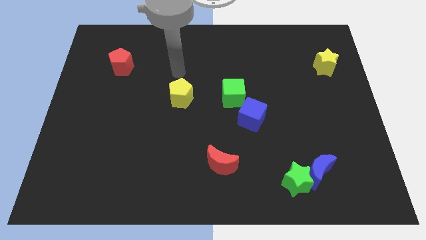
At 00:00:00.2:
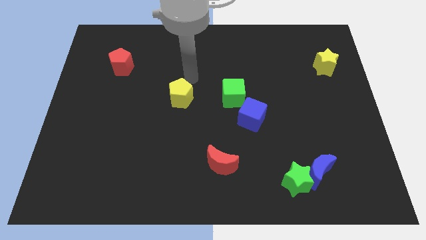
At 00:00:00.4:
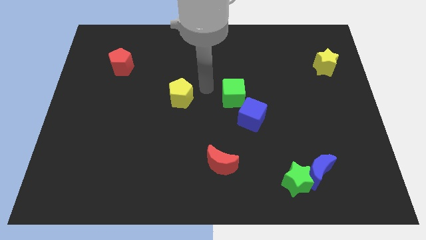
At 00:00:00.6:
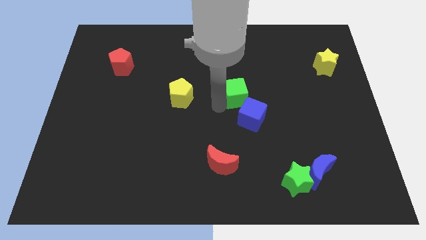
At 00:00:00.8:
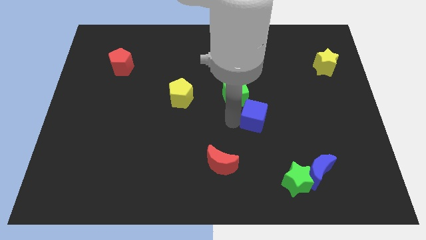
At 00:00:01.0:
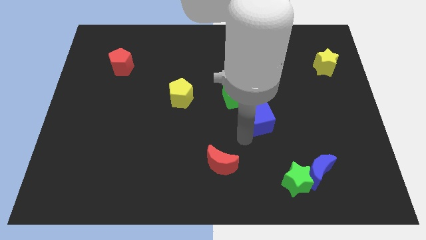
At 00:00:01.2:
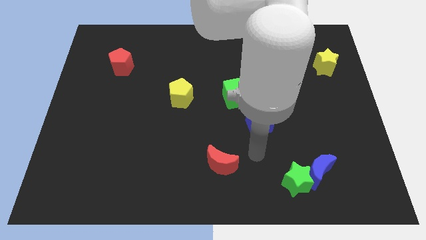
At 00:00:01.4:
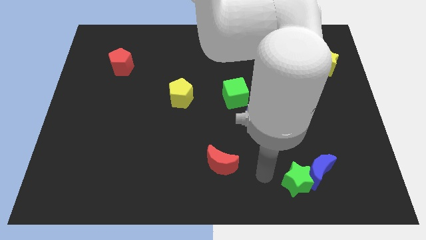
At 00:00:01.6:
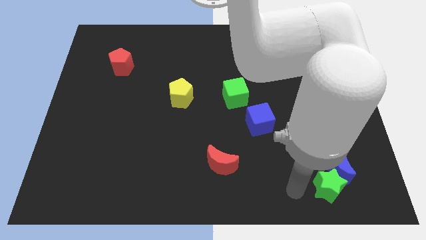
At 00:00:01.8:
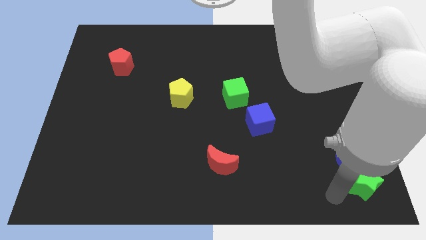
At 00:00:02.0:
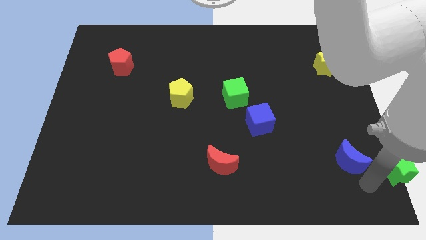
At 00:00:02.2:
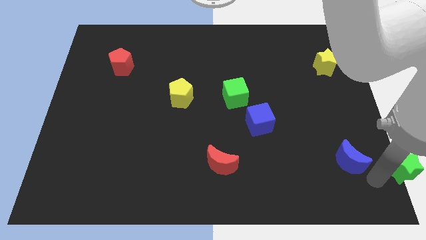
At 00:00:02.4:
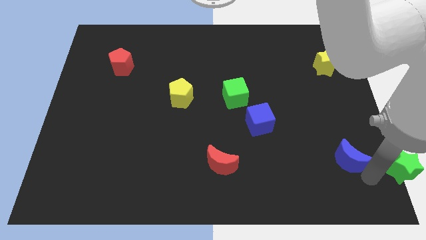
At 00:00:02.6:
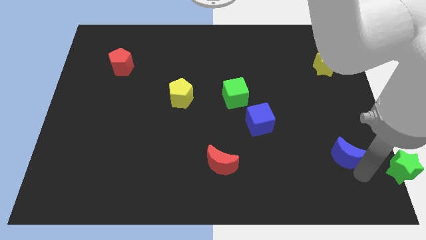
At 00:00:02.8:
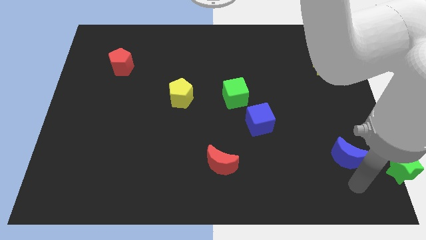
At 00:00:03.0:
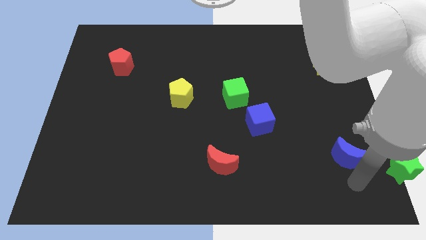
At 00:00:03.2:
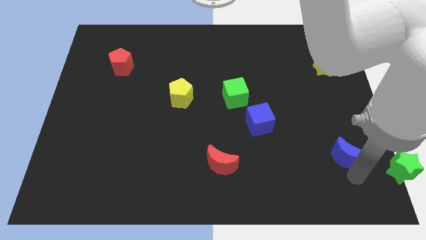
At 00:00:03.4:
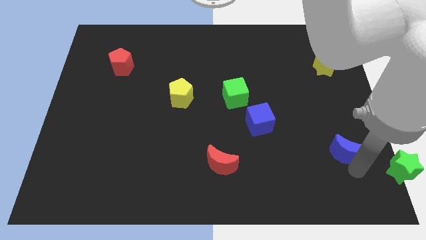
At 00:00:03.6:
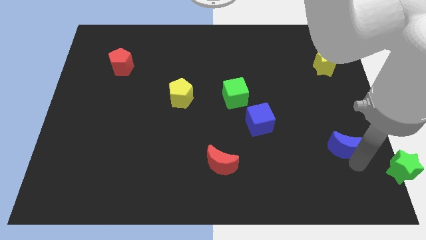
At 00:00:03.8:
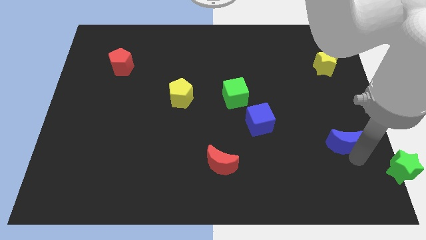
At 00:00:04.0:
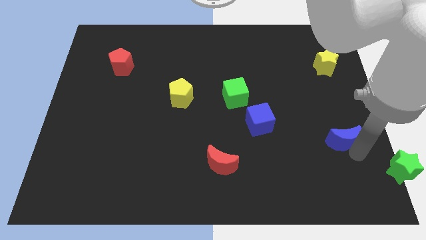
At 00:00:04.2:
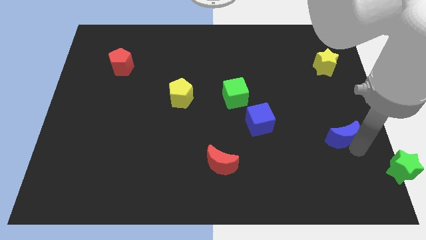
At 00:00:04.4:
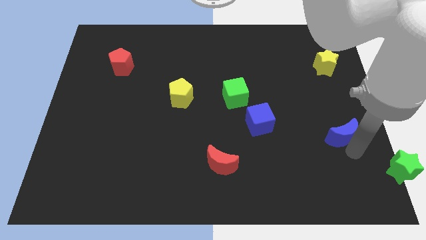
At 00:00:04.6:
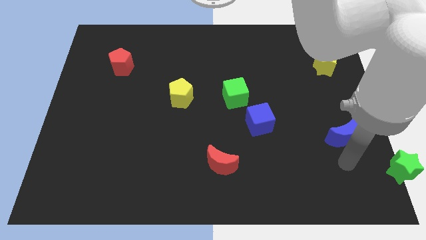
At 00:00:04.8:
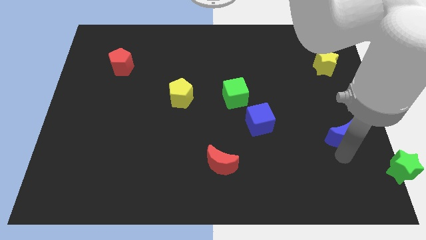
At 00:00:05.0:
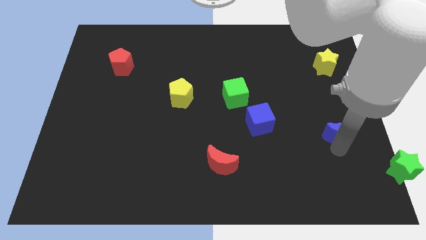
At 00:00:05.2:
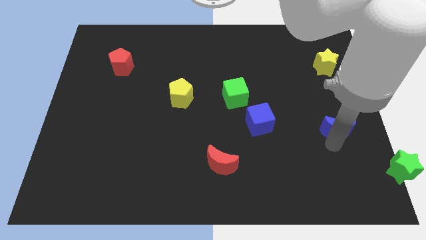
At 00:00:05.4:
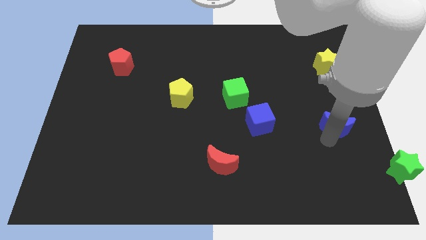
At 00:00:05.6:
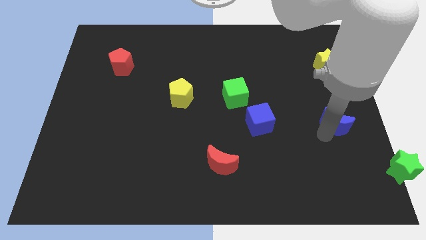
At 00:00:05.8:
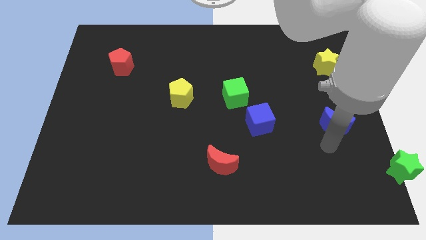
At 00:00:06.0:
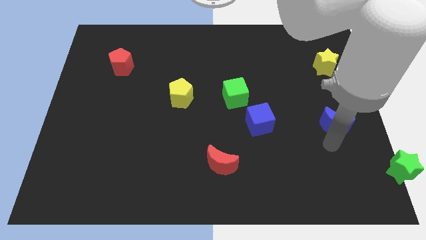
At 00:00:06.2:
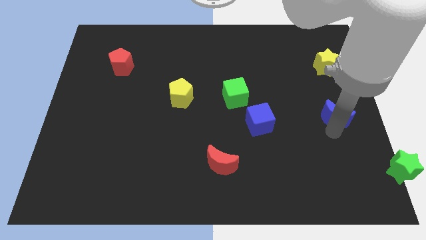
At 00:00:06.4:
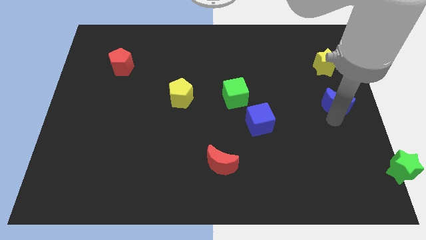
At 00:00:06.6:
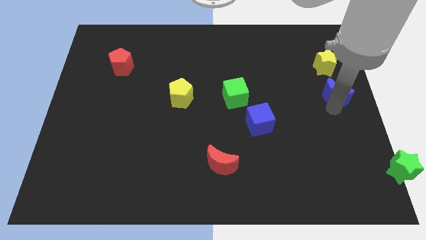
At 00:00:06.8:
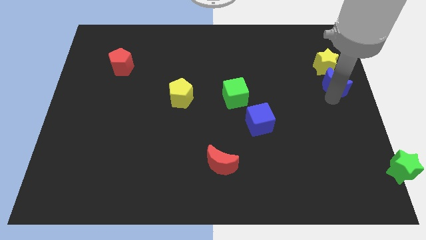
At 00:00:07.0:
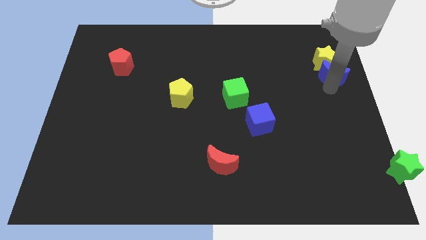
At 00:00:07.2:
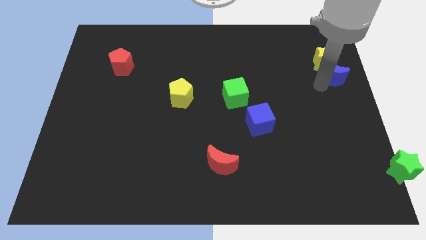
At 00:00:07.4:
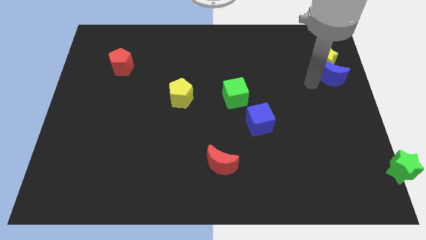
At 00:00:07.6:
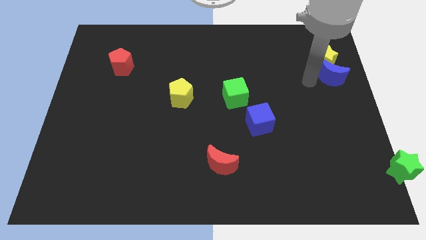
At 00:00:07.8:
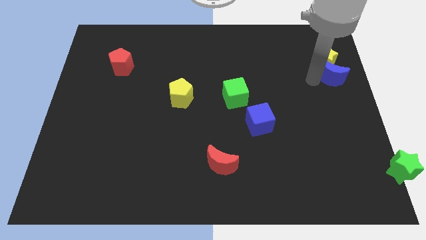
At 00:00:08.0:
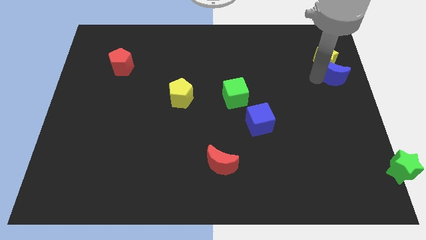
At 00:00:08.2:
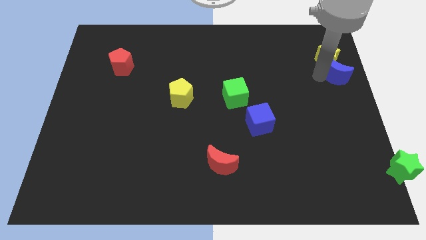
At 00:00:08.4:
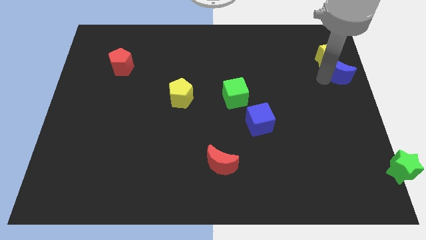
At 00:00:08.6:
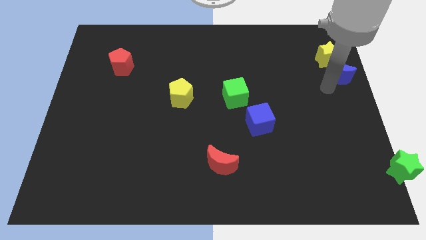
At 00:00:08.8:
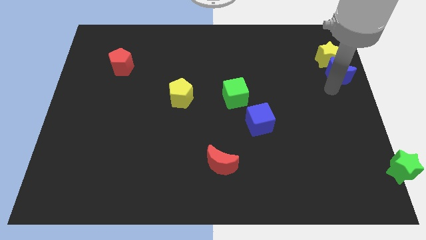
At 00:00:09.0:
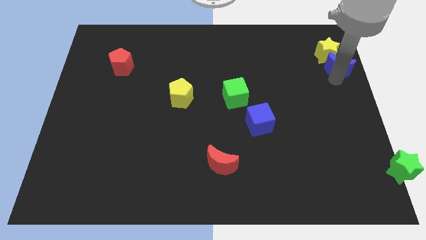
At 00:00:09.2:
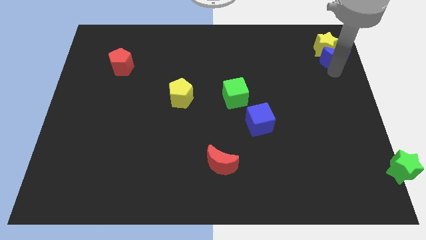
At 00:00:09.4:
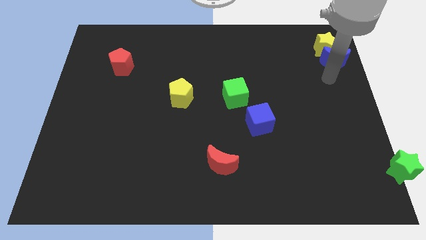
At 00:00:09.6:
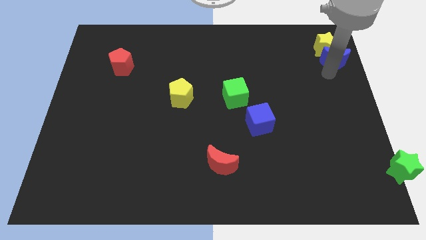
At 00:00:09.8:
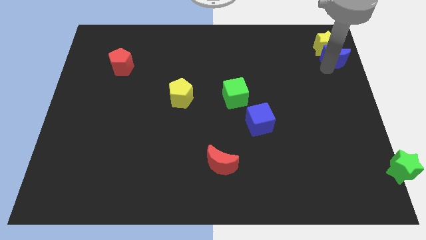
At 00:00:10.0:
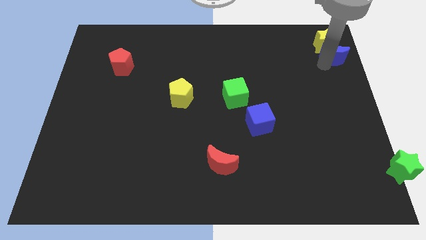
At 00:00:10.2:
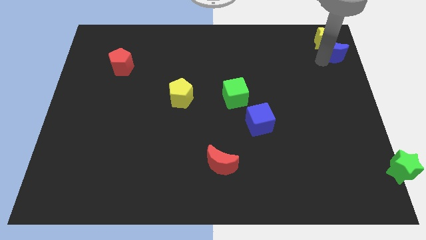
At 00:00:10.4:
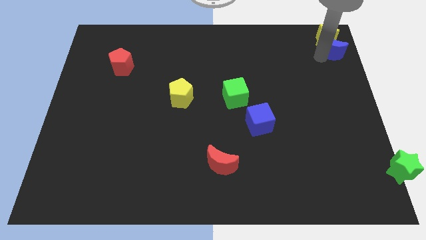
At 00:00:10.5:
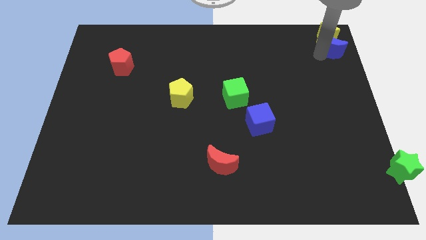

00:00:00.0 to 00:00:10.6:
move the blue moon to the top right corner
